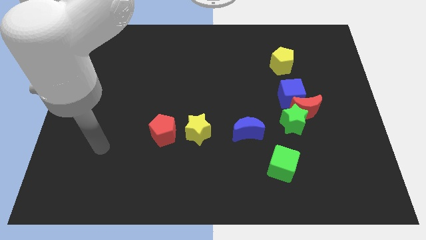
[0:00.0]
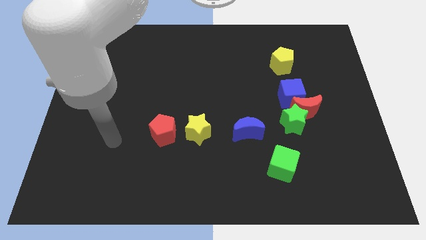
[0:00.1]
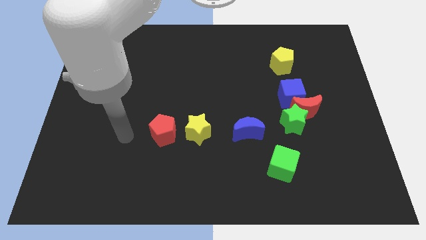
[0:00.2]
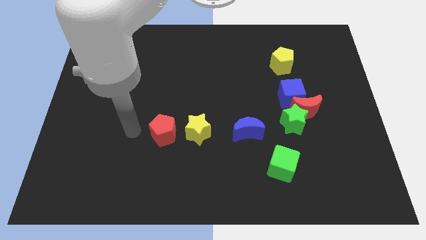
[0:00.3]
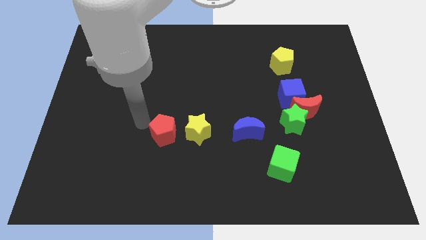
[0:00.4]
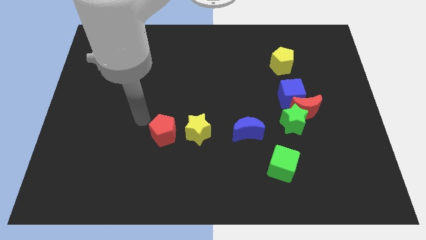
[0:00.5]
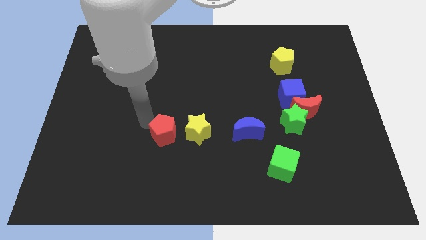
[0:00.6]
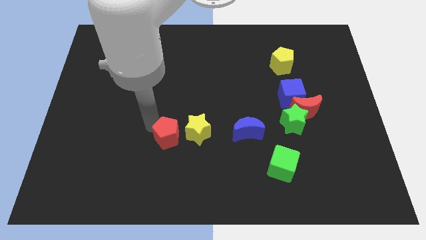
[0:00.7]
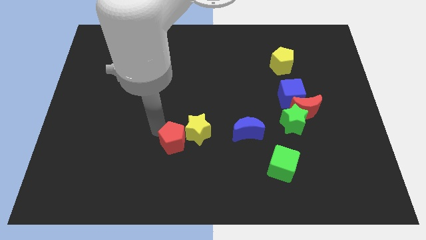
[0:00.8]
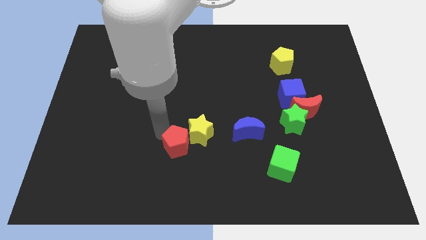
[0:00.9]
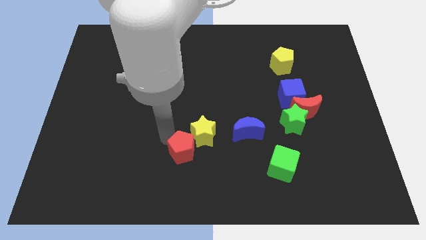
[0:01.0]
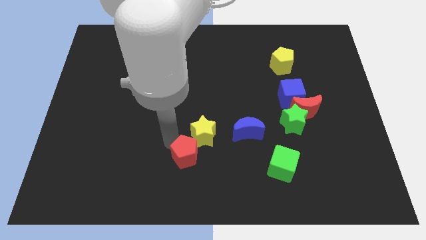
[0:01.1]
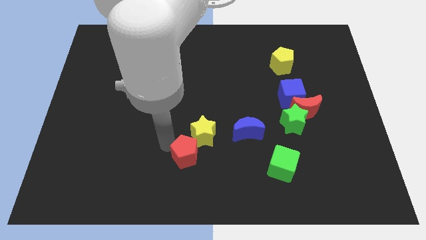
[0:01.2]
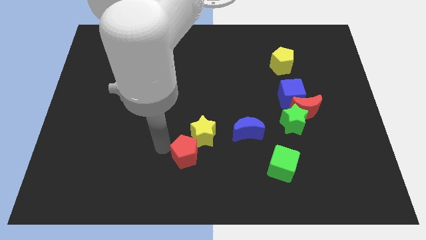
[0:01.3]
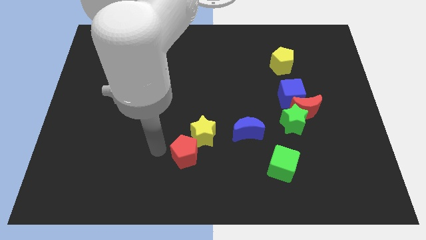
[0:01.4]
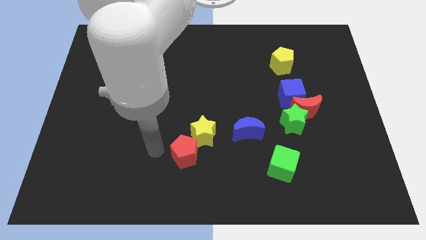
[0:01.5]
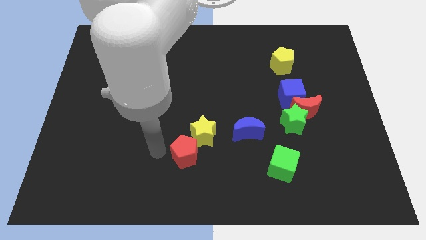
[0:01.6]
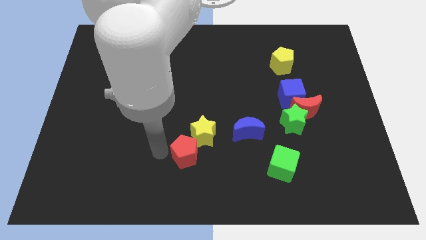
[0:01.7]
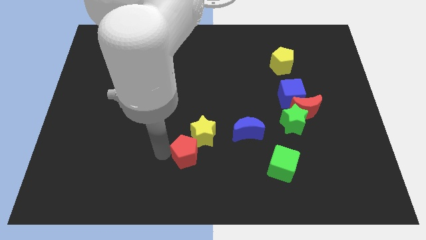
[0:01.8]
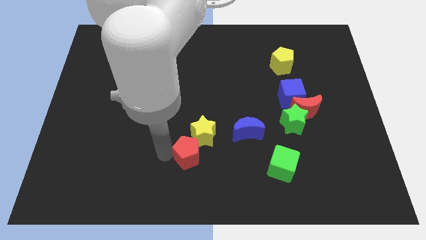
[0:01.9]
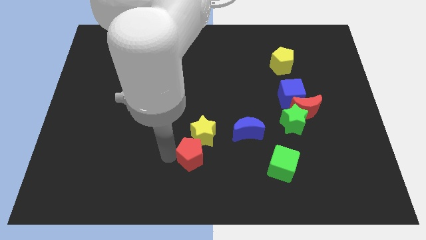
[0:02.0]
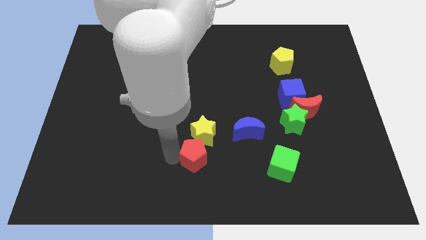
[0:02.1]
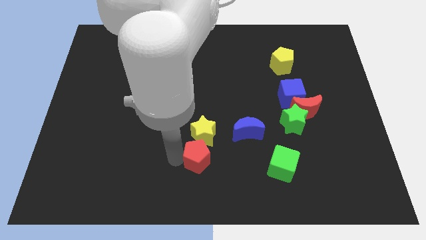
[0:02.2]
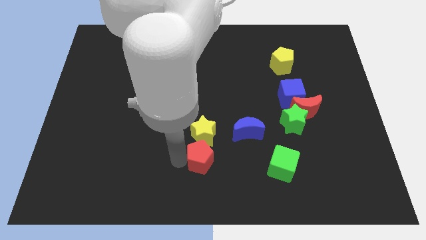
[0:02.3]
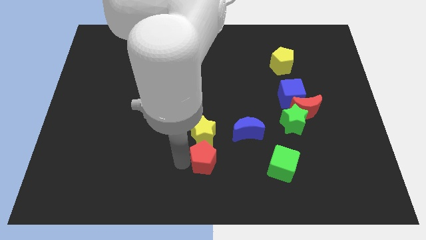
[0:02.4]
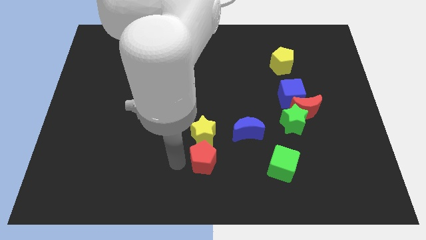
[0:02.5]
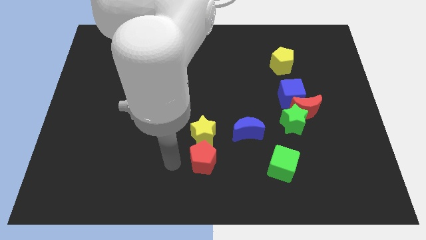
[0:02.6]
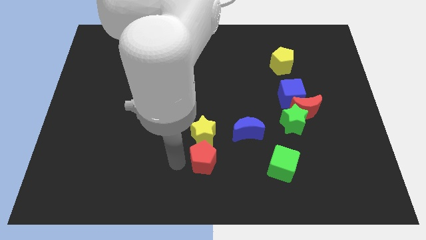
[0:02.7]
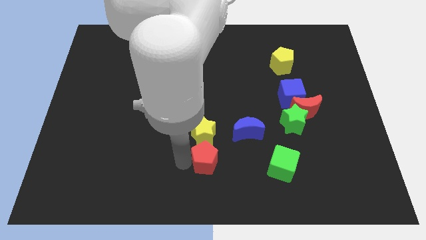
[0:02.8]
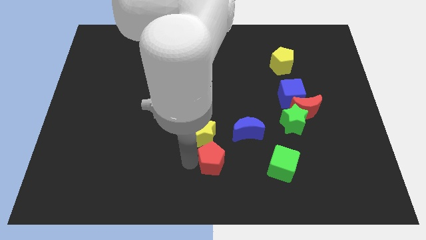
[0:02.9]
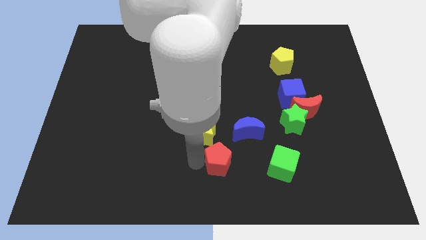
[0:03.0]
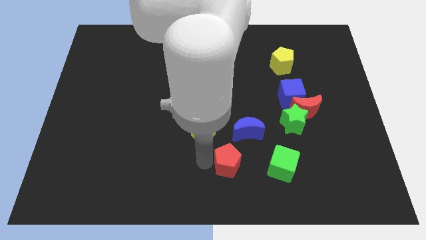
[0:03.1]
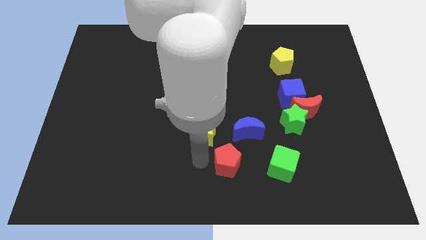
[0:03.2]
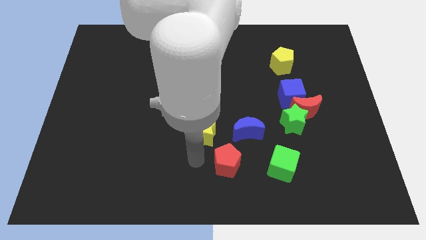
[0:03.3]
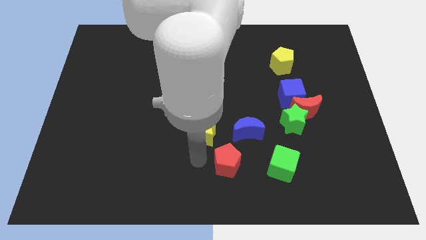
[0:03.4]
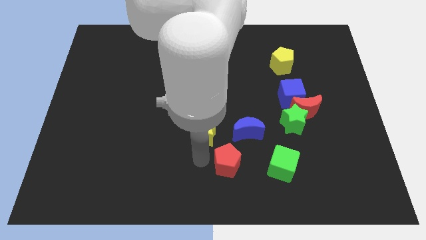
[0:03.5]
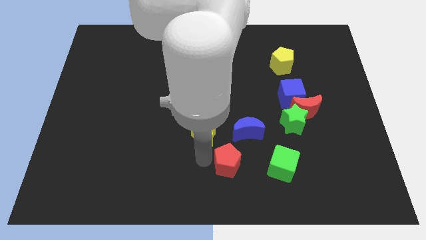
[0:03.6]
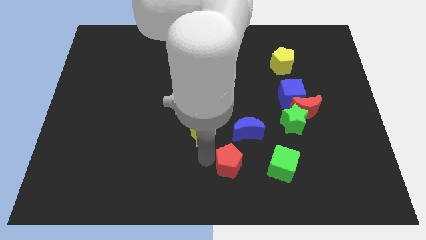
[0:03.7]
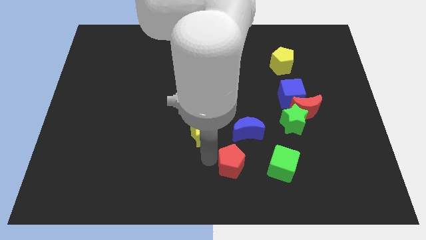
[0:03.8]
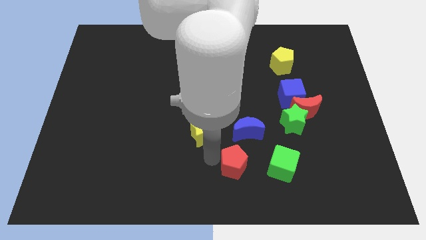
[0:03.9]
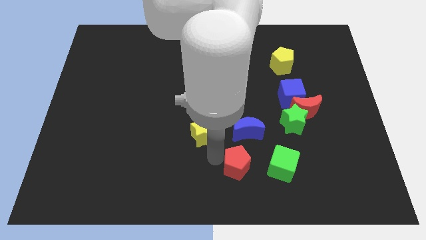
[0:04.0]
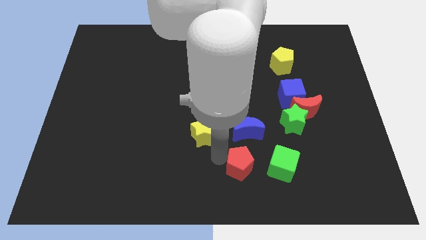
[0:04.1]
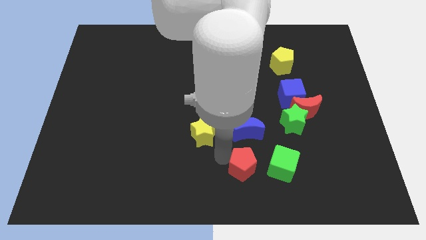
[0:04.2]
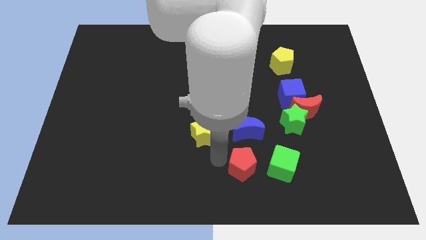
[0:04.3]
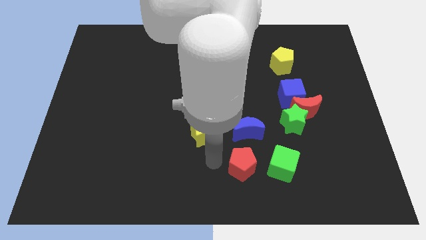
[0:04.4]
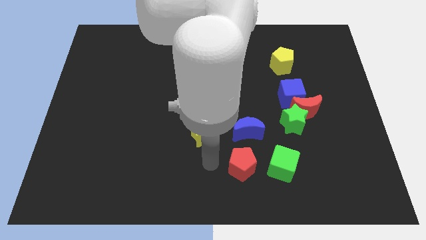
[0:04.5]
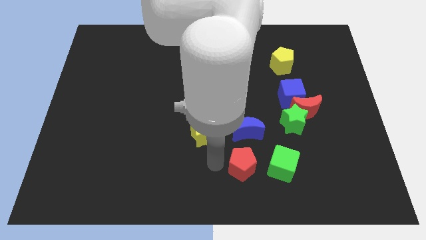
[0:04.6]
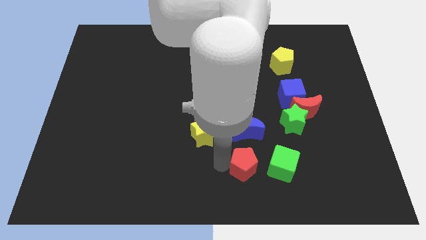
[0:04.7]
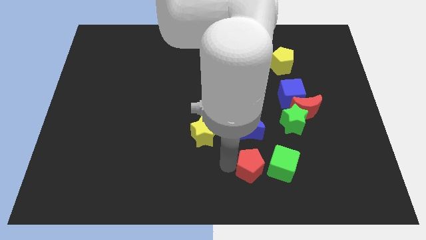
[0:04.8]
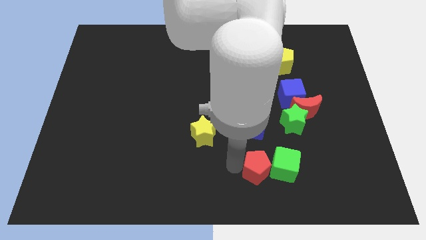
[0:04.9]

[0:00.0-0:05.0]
move the red pentagon next to the green cube

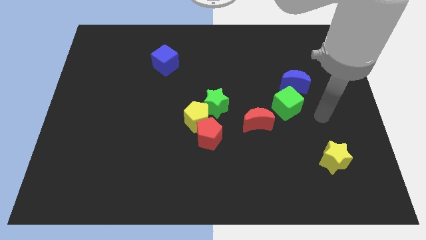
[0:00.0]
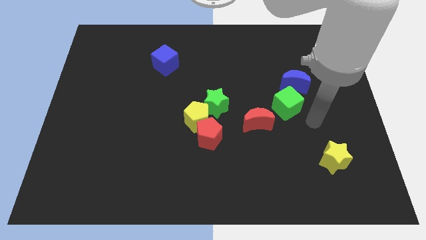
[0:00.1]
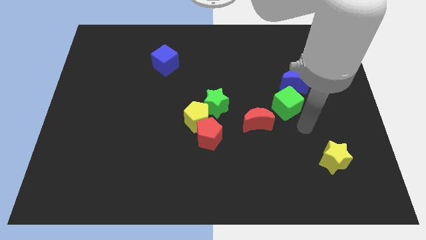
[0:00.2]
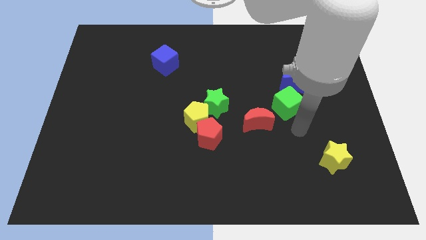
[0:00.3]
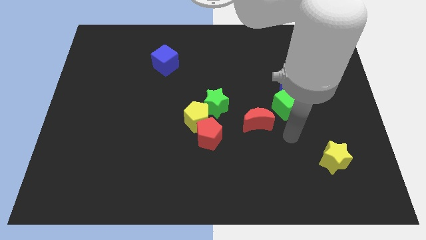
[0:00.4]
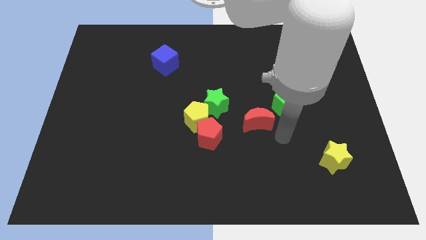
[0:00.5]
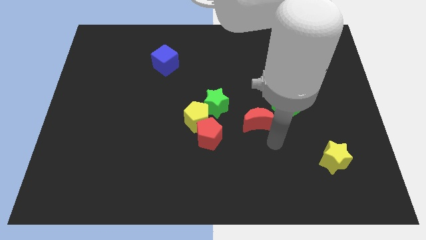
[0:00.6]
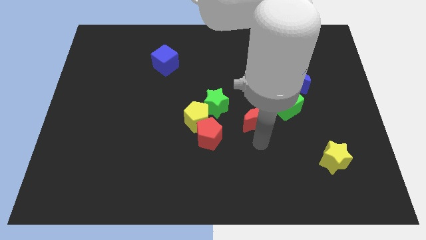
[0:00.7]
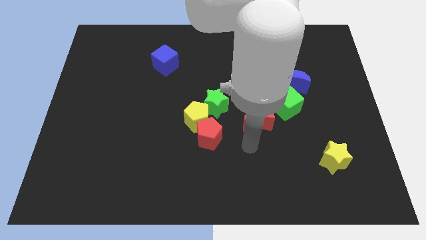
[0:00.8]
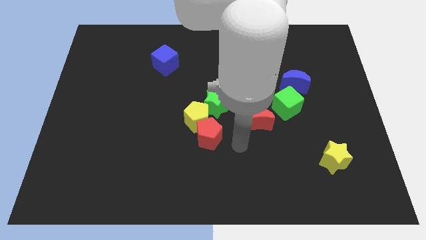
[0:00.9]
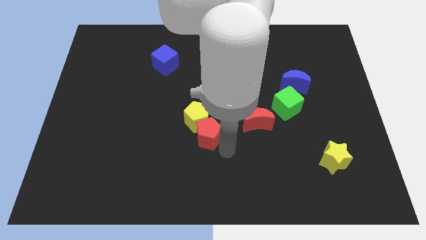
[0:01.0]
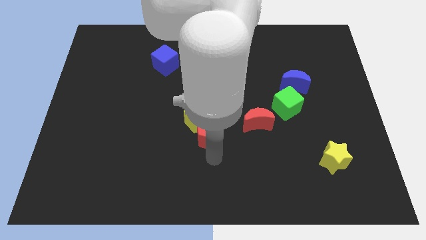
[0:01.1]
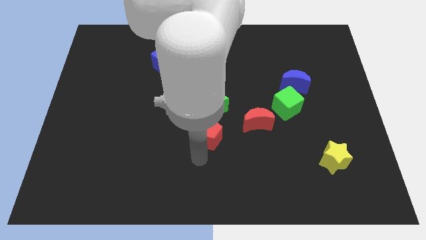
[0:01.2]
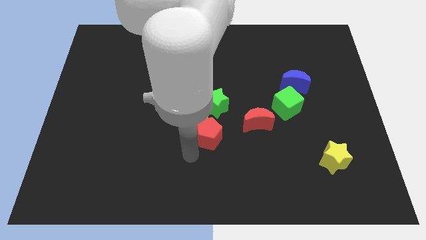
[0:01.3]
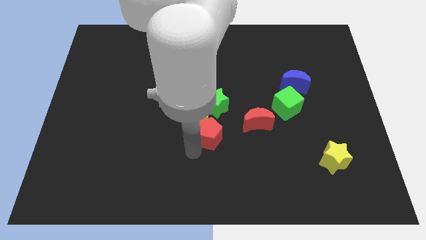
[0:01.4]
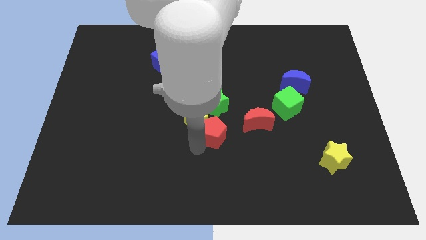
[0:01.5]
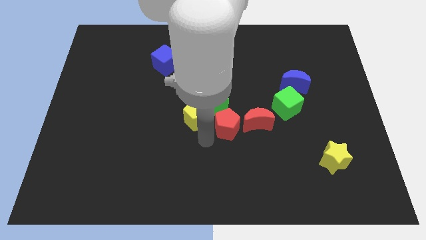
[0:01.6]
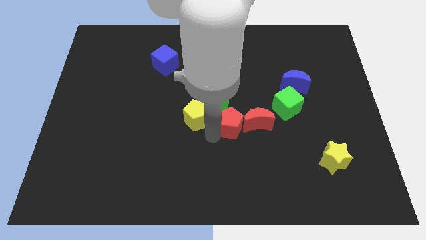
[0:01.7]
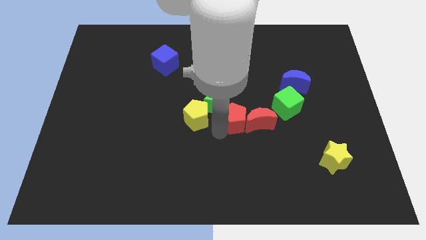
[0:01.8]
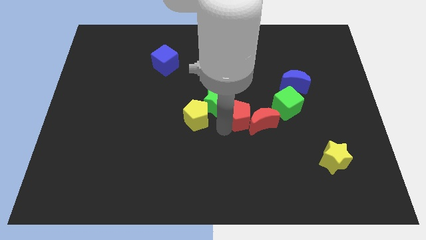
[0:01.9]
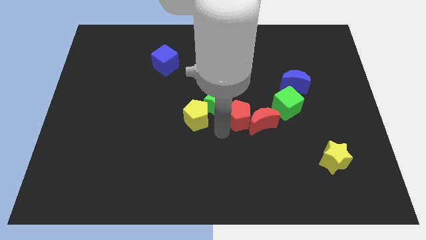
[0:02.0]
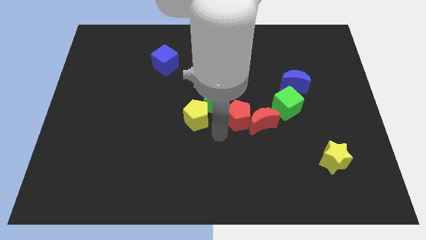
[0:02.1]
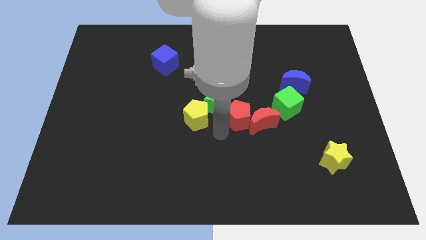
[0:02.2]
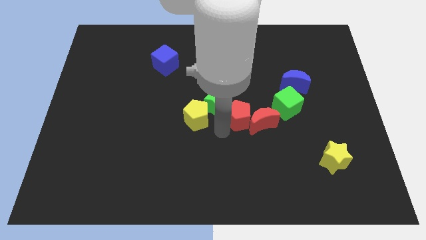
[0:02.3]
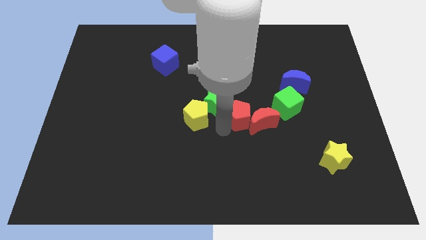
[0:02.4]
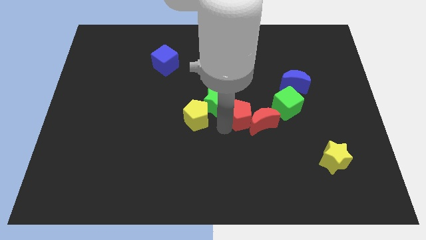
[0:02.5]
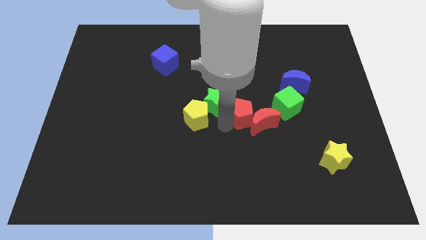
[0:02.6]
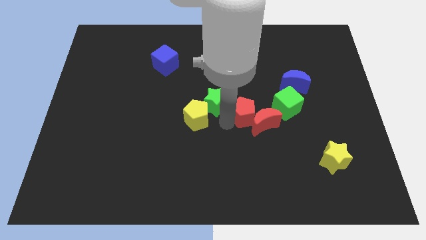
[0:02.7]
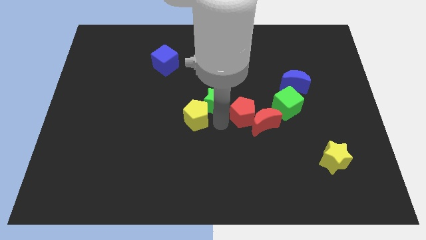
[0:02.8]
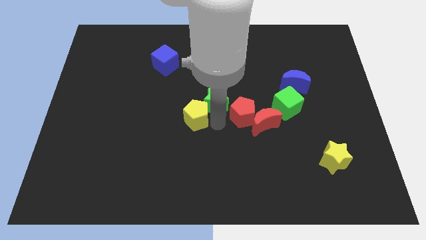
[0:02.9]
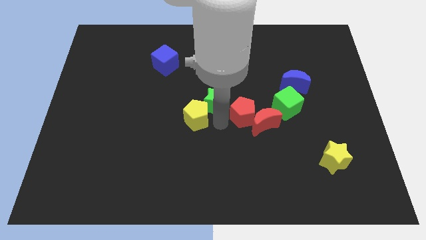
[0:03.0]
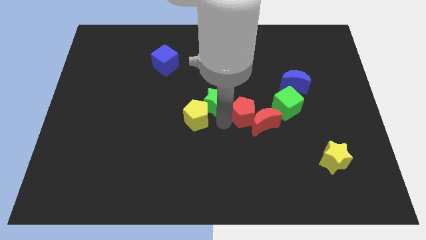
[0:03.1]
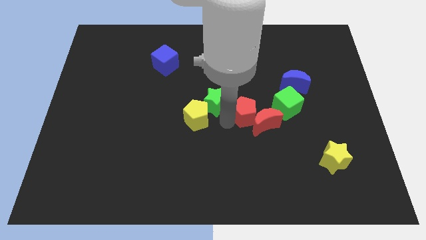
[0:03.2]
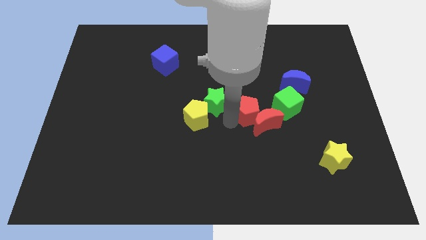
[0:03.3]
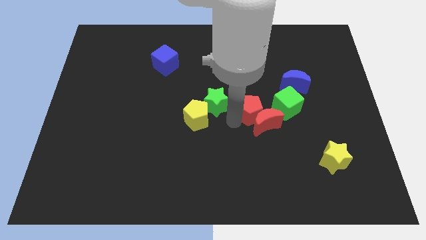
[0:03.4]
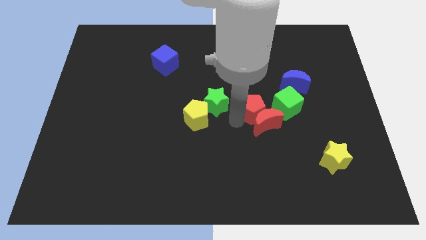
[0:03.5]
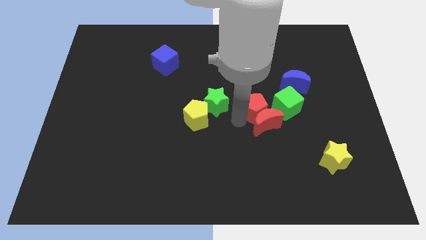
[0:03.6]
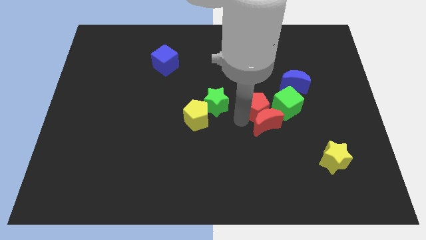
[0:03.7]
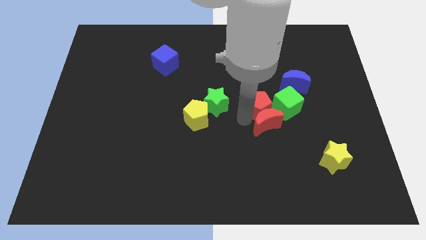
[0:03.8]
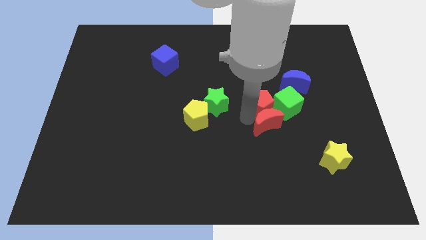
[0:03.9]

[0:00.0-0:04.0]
slide the red pentagon to the green cube
